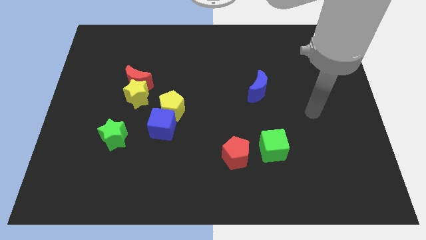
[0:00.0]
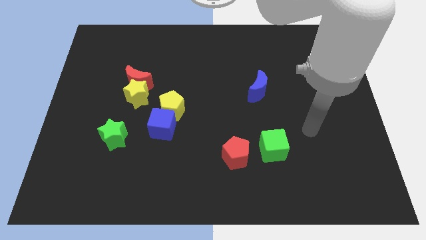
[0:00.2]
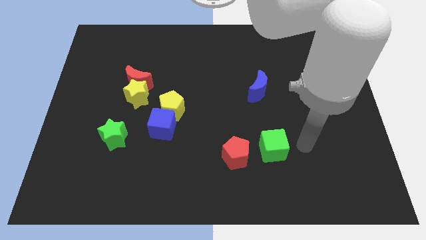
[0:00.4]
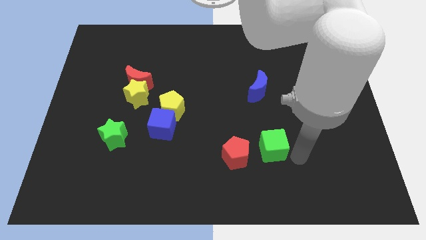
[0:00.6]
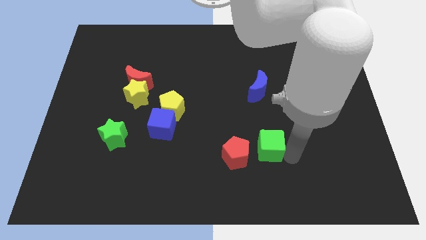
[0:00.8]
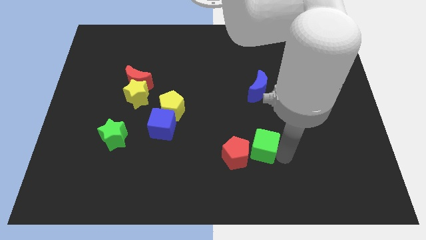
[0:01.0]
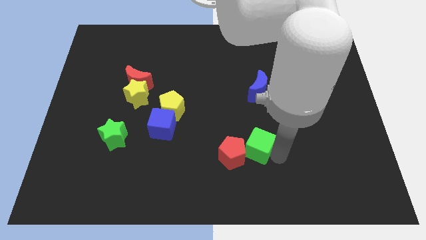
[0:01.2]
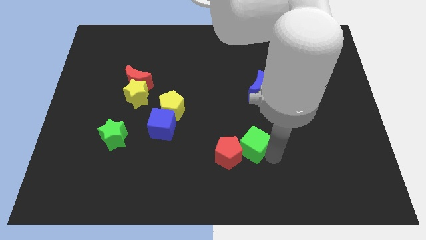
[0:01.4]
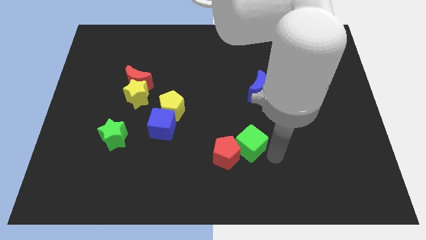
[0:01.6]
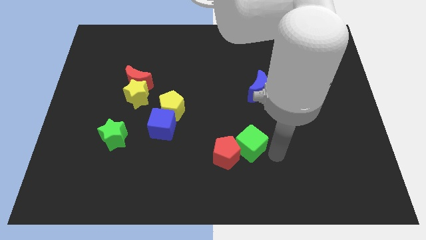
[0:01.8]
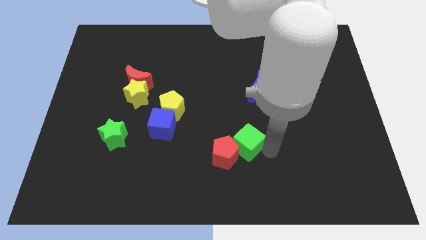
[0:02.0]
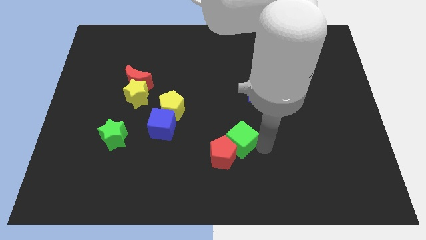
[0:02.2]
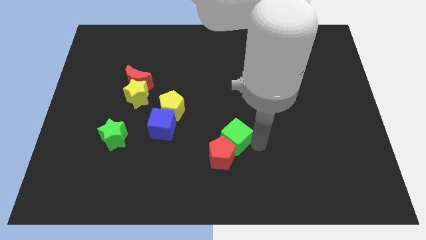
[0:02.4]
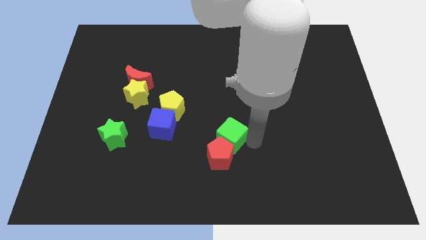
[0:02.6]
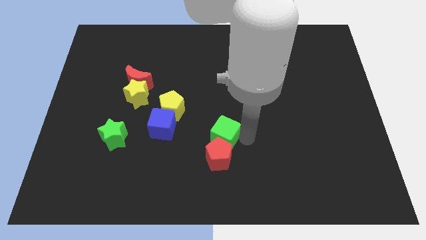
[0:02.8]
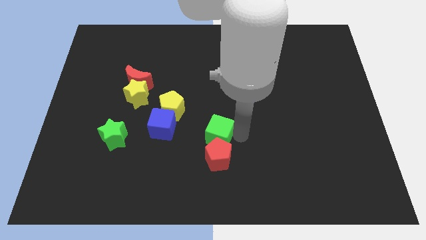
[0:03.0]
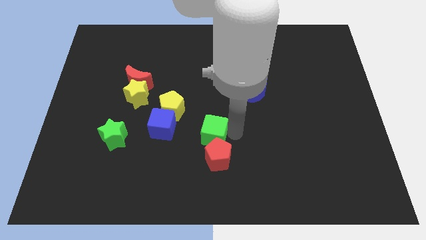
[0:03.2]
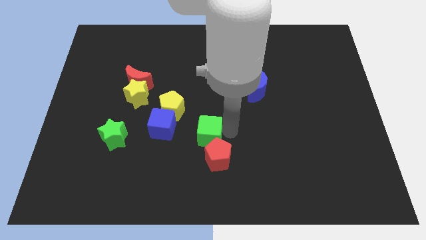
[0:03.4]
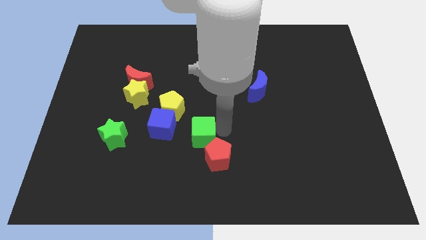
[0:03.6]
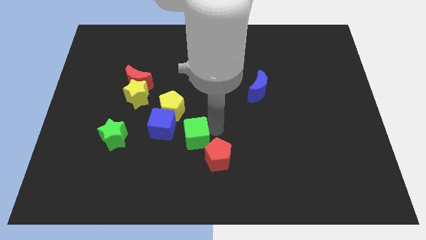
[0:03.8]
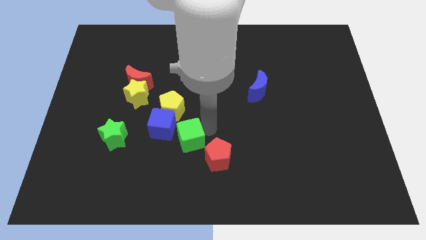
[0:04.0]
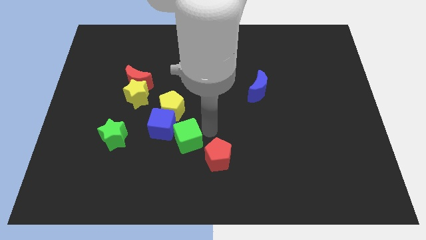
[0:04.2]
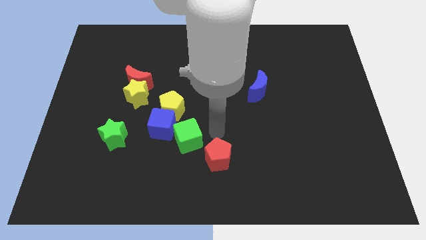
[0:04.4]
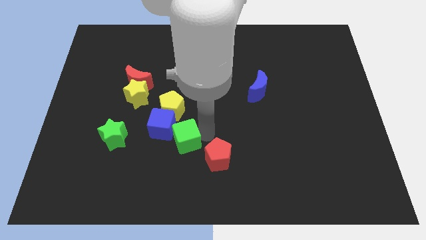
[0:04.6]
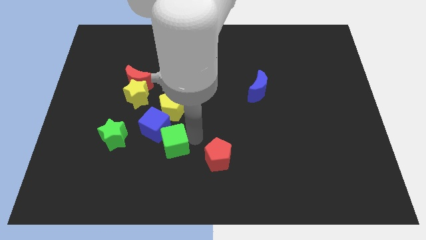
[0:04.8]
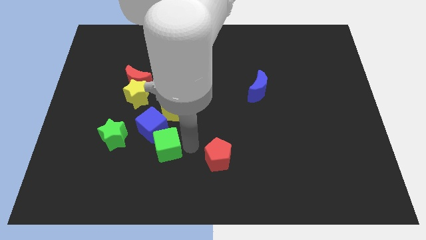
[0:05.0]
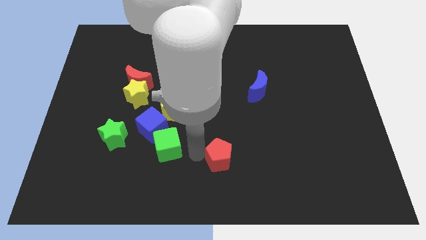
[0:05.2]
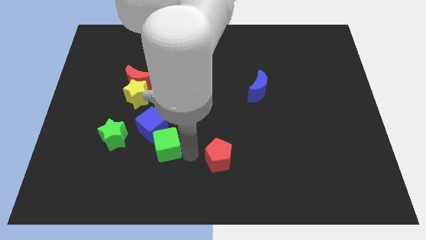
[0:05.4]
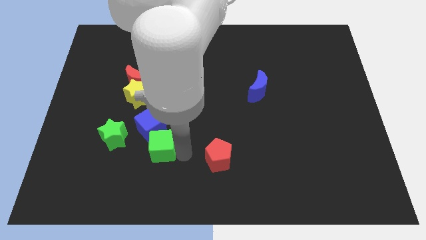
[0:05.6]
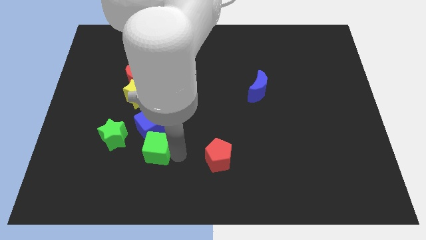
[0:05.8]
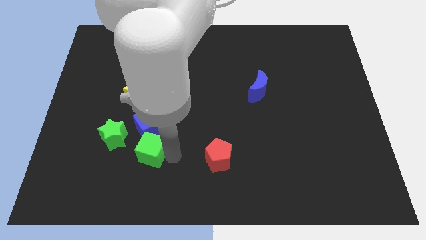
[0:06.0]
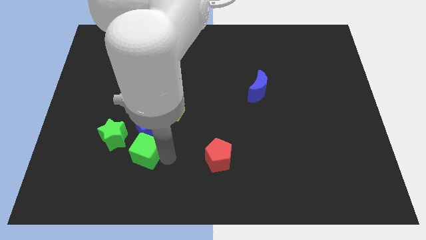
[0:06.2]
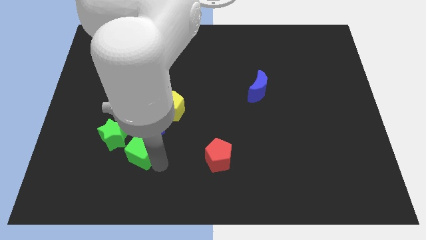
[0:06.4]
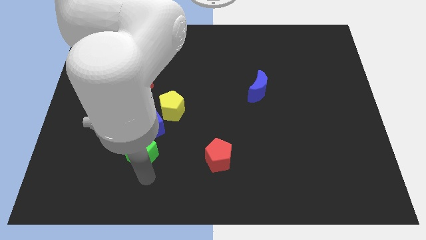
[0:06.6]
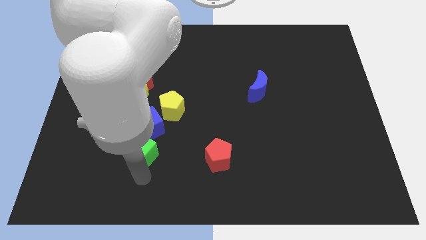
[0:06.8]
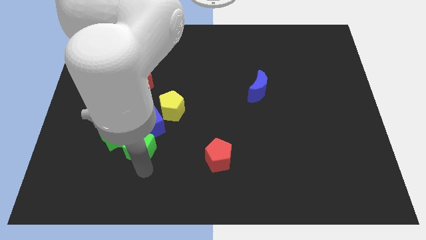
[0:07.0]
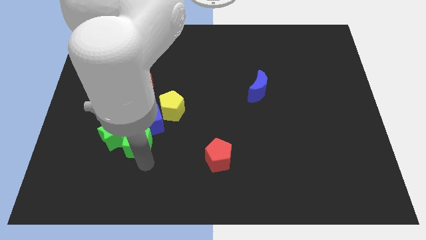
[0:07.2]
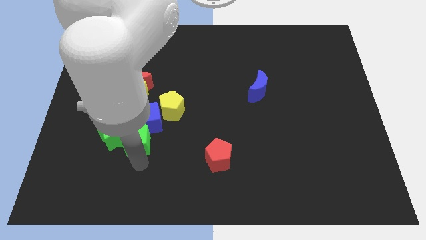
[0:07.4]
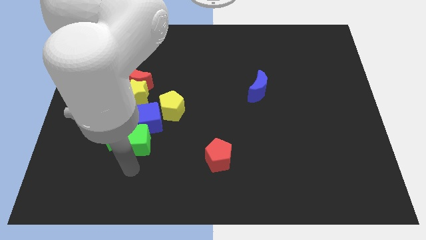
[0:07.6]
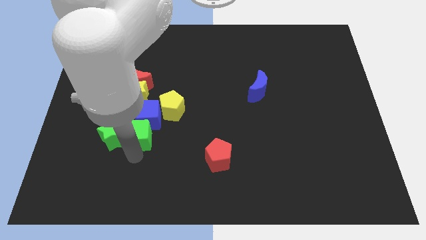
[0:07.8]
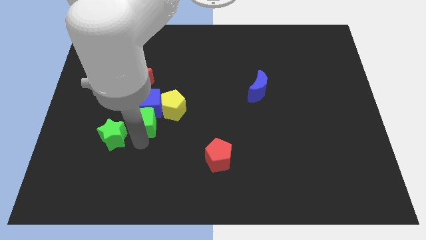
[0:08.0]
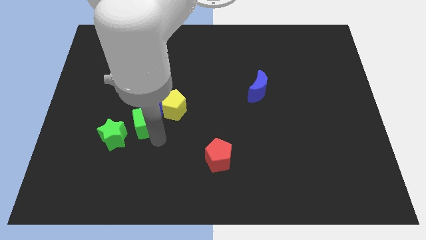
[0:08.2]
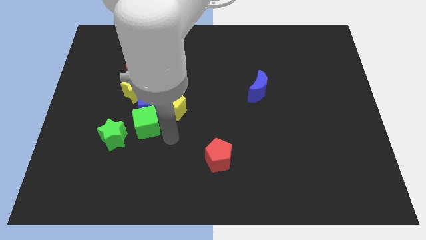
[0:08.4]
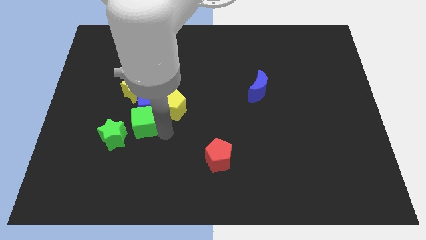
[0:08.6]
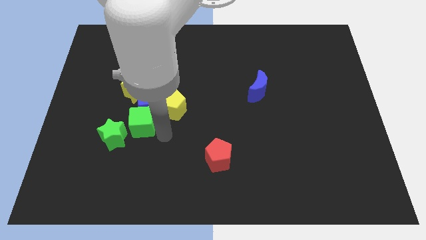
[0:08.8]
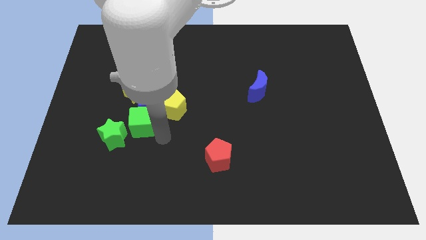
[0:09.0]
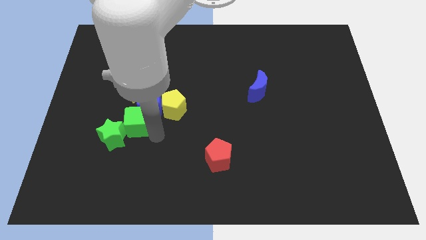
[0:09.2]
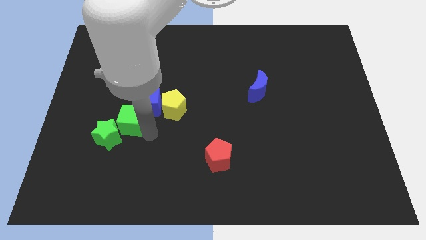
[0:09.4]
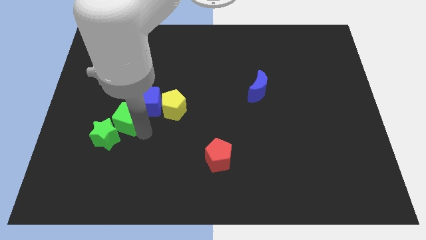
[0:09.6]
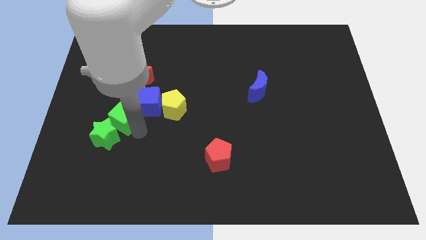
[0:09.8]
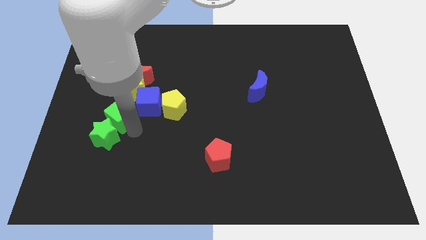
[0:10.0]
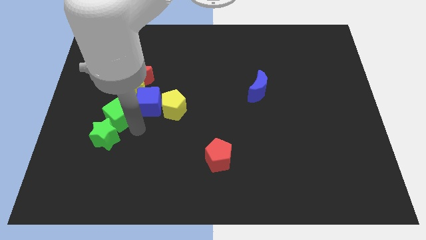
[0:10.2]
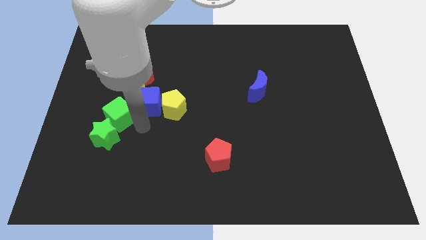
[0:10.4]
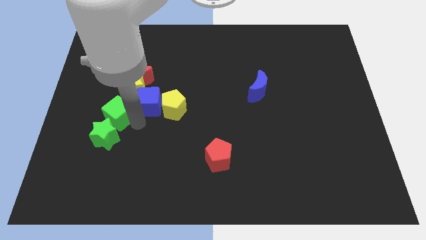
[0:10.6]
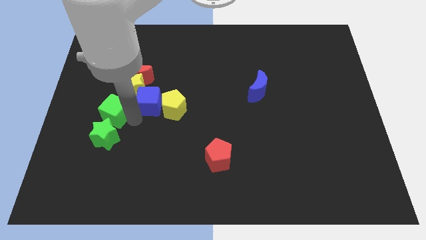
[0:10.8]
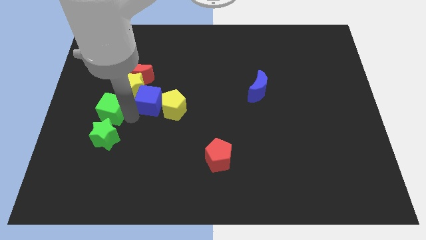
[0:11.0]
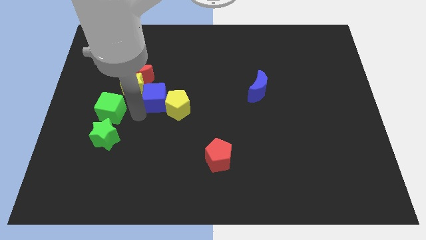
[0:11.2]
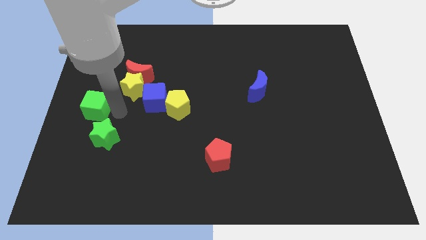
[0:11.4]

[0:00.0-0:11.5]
put the green cube to the left side of the board
